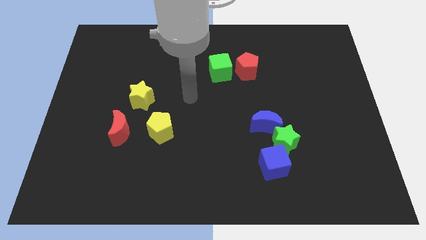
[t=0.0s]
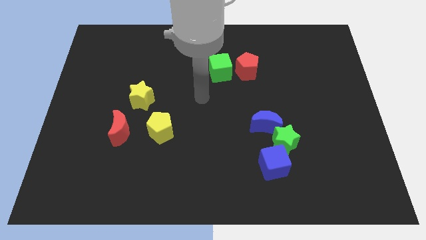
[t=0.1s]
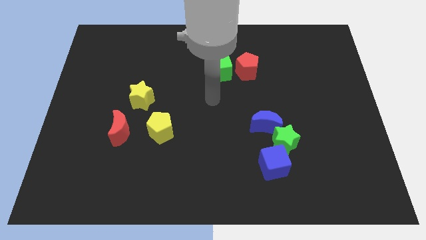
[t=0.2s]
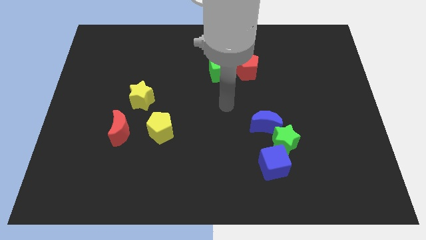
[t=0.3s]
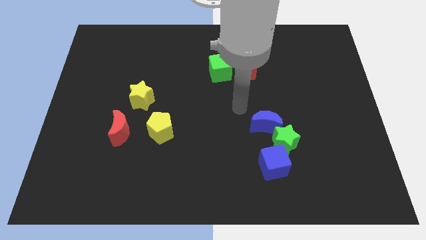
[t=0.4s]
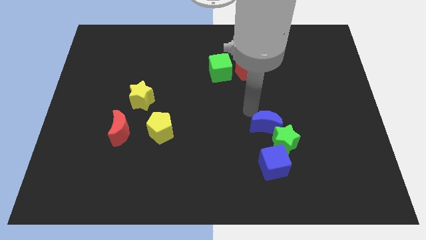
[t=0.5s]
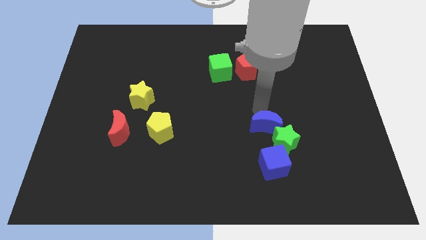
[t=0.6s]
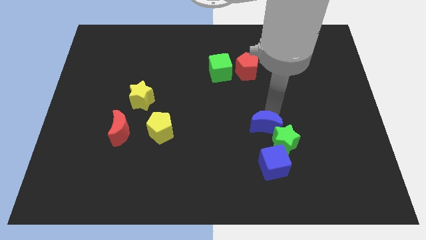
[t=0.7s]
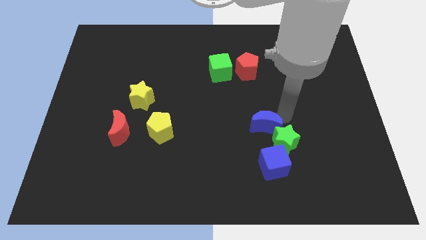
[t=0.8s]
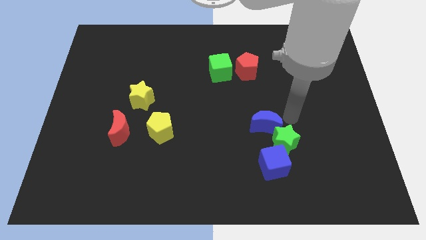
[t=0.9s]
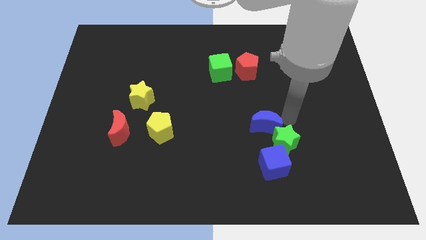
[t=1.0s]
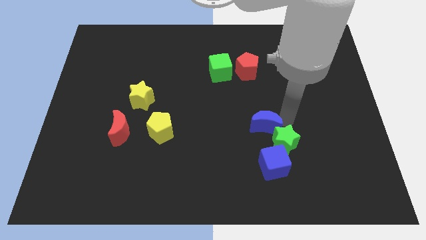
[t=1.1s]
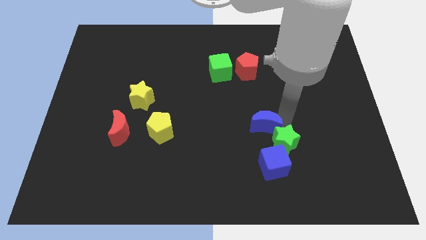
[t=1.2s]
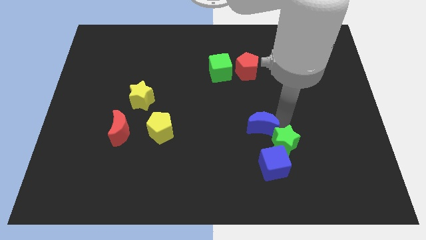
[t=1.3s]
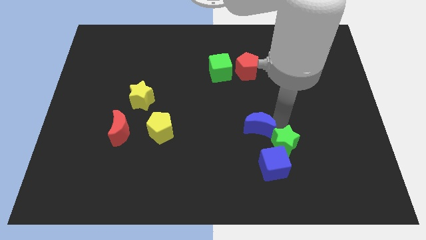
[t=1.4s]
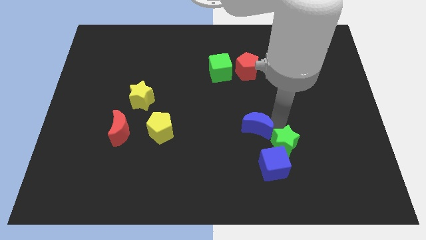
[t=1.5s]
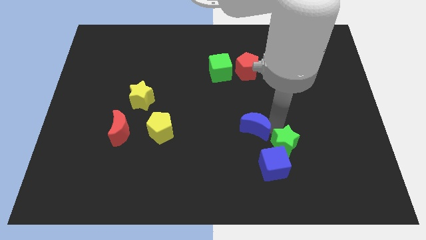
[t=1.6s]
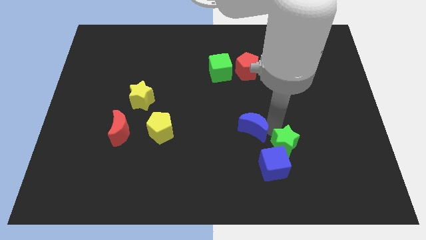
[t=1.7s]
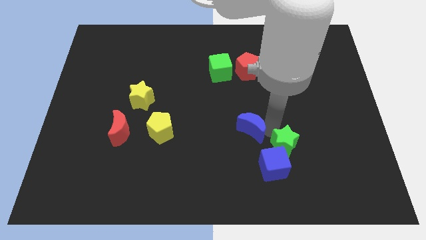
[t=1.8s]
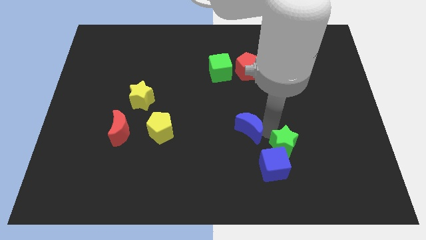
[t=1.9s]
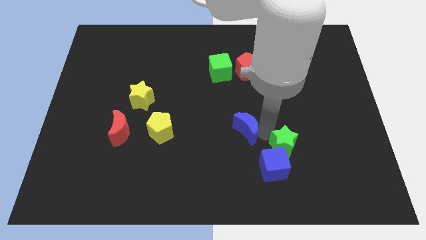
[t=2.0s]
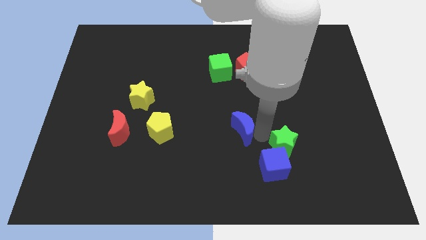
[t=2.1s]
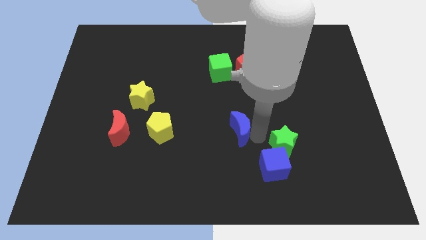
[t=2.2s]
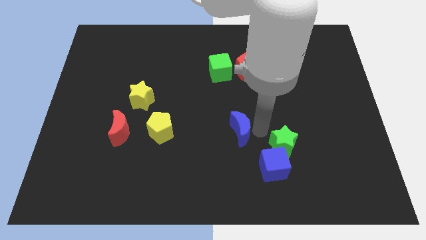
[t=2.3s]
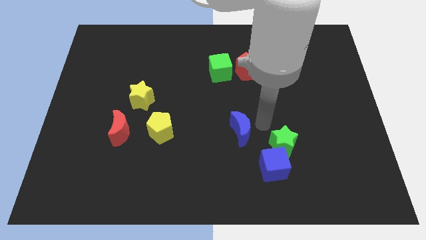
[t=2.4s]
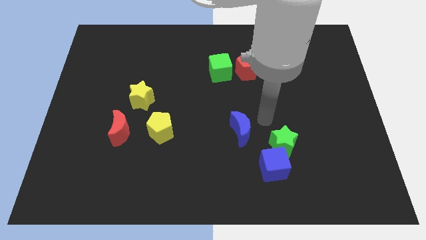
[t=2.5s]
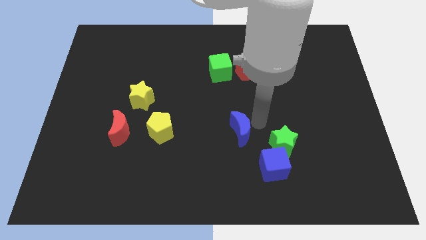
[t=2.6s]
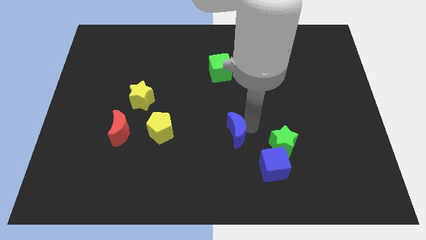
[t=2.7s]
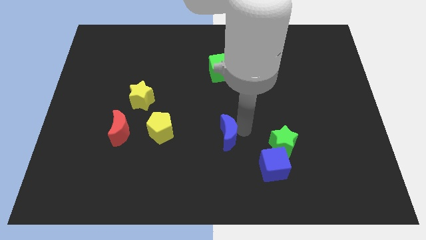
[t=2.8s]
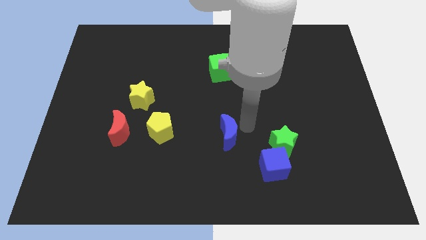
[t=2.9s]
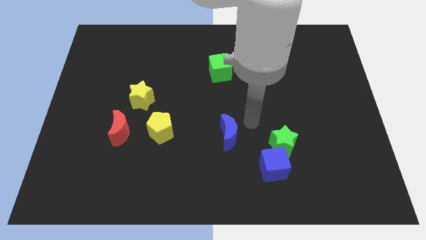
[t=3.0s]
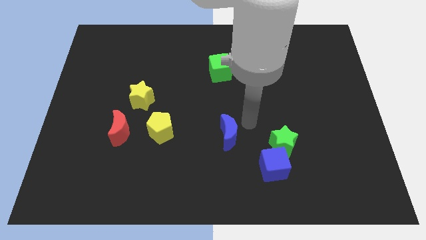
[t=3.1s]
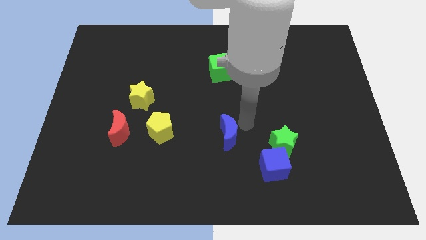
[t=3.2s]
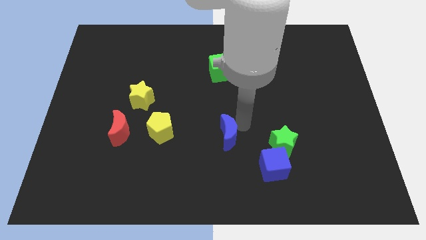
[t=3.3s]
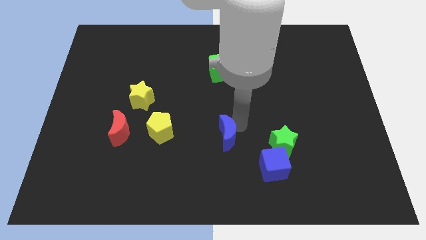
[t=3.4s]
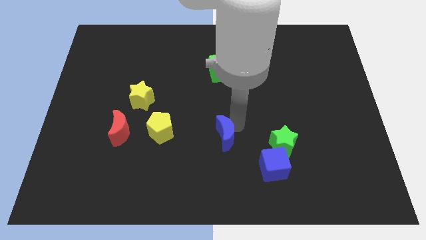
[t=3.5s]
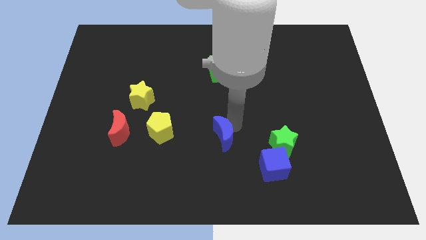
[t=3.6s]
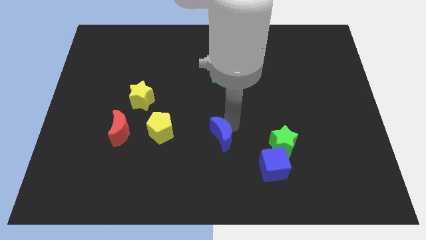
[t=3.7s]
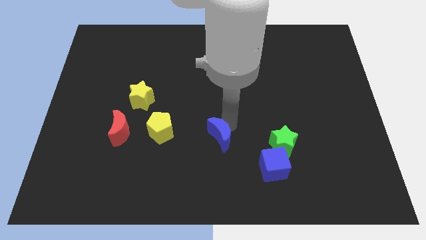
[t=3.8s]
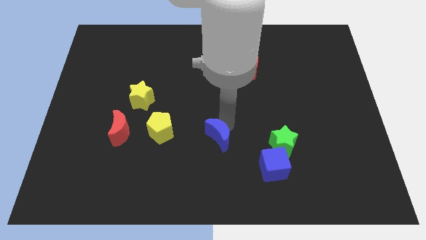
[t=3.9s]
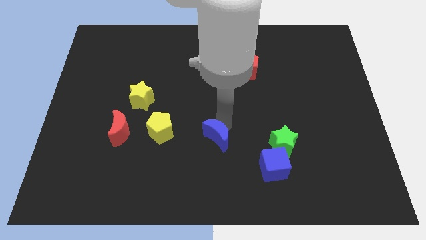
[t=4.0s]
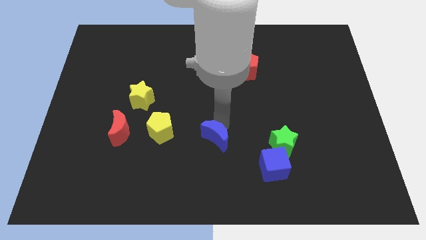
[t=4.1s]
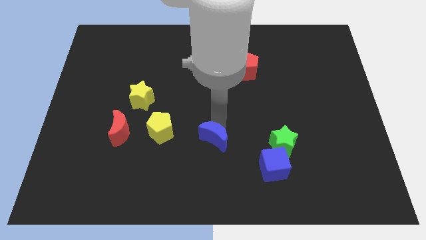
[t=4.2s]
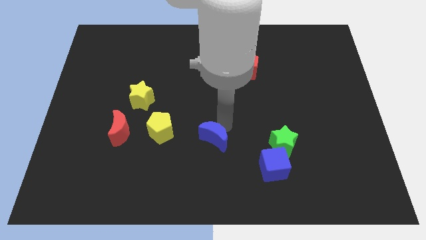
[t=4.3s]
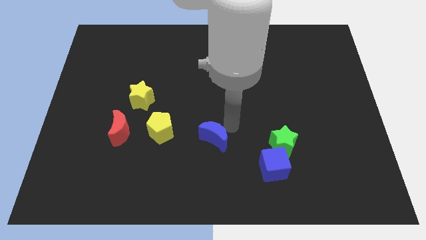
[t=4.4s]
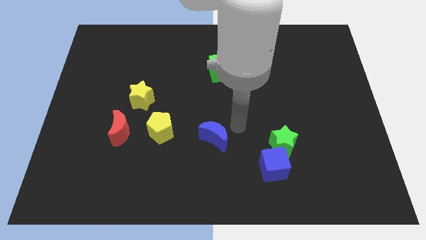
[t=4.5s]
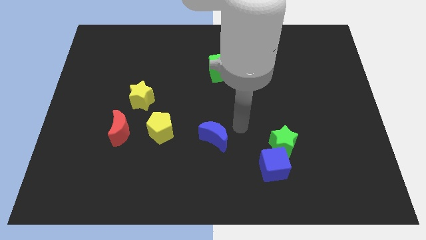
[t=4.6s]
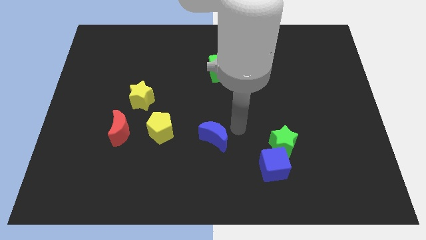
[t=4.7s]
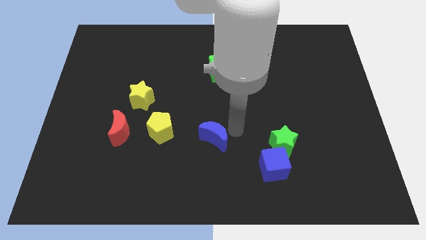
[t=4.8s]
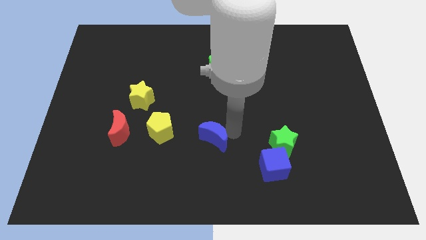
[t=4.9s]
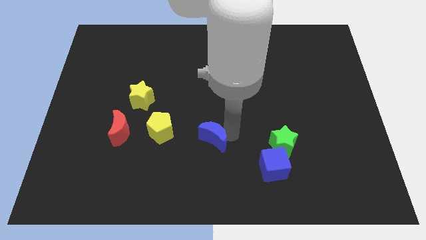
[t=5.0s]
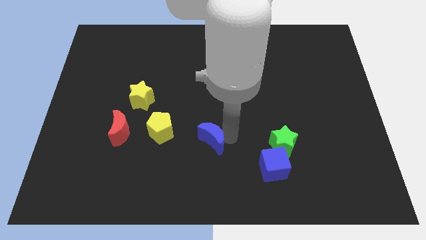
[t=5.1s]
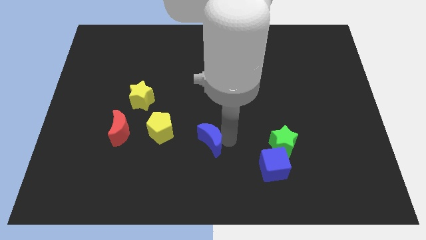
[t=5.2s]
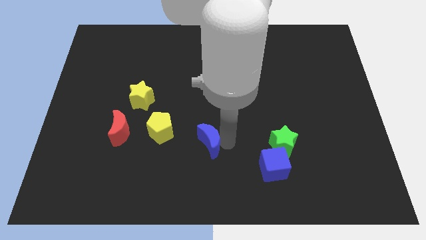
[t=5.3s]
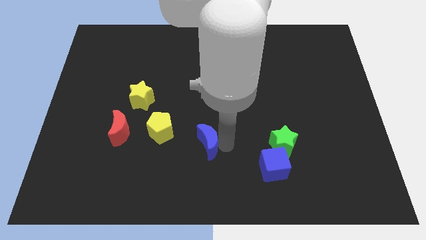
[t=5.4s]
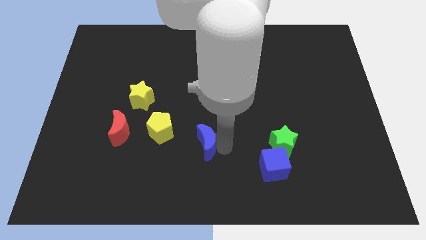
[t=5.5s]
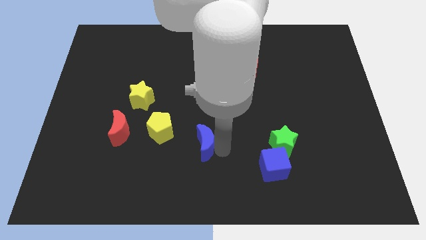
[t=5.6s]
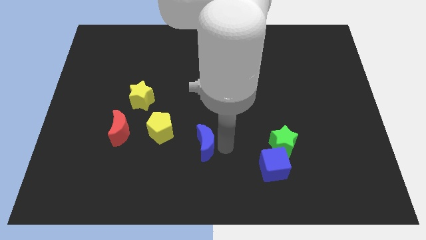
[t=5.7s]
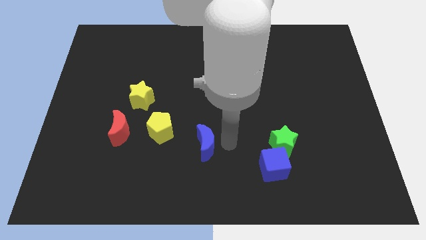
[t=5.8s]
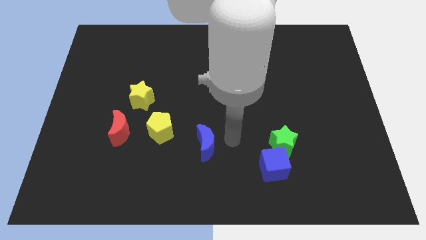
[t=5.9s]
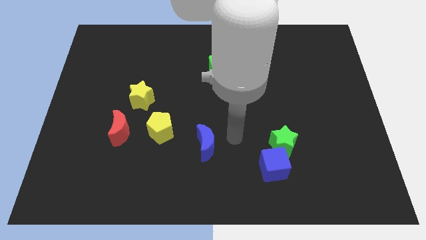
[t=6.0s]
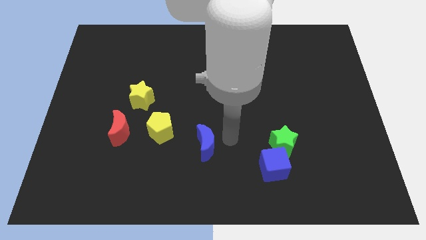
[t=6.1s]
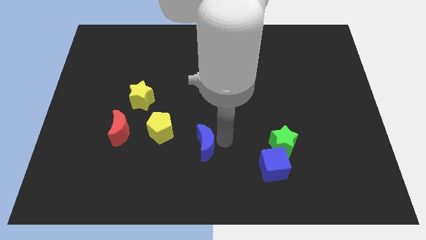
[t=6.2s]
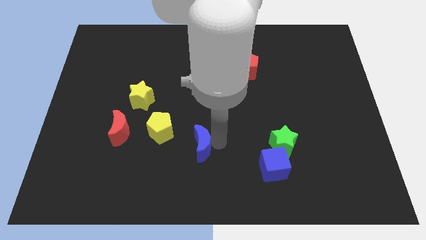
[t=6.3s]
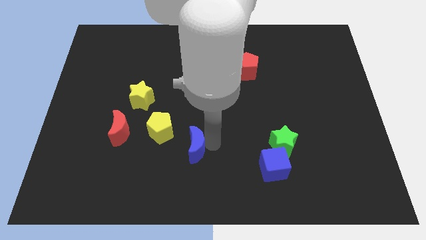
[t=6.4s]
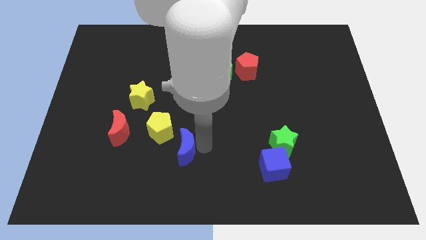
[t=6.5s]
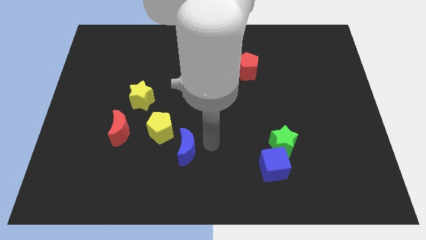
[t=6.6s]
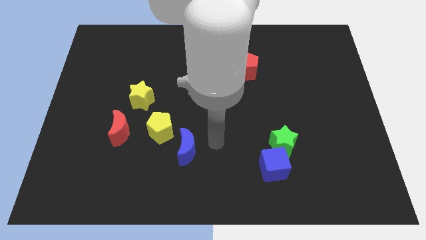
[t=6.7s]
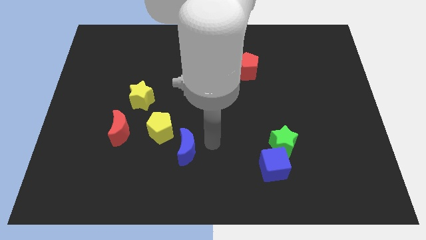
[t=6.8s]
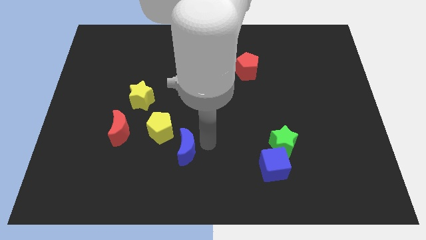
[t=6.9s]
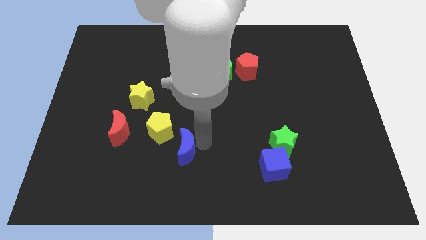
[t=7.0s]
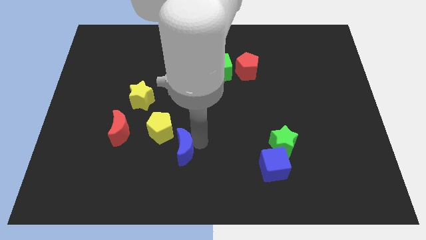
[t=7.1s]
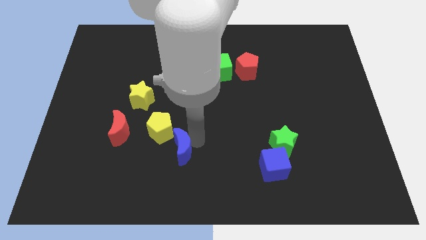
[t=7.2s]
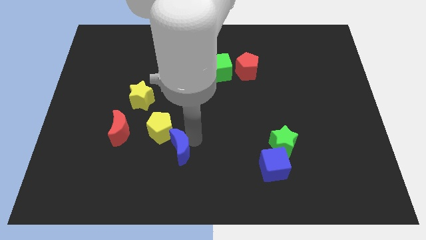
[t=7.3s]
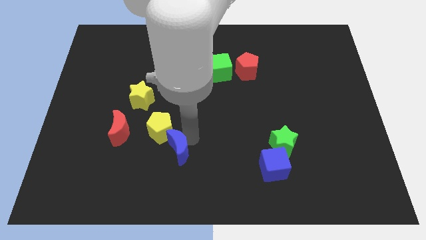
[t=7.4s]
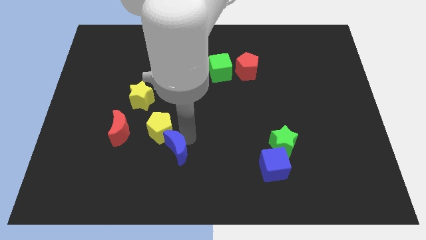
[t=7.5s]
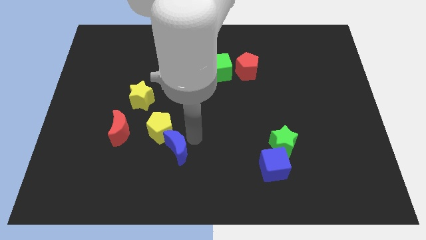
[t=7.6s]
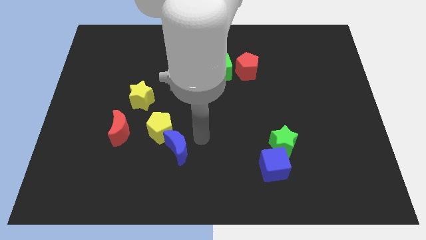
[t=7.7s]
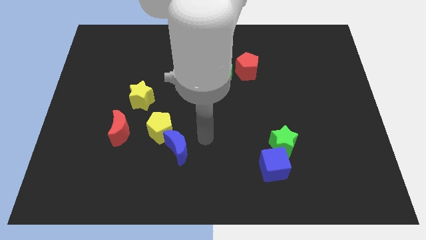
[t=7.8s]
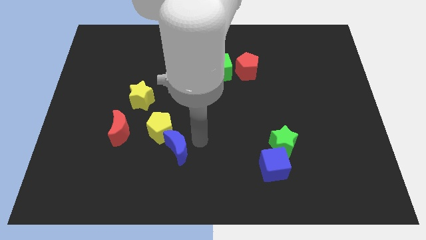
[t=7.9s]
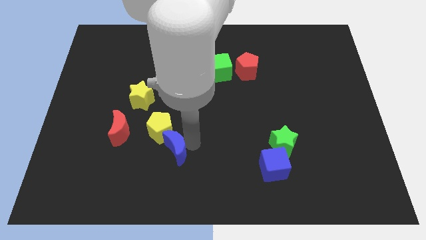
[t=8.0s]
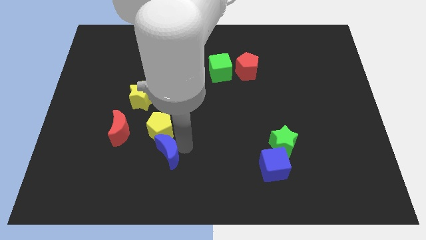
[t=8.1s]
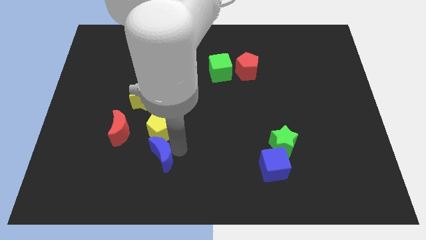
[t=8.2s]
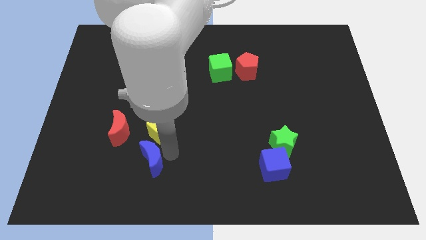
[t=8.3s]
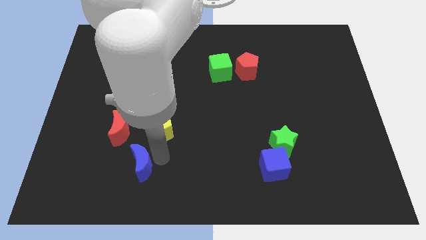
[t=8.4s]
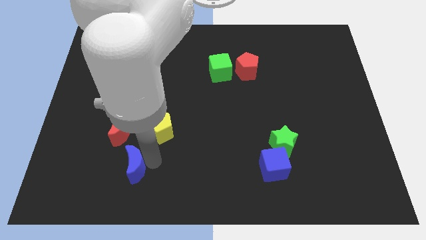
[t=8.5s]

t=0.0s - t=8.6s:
push the blue moon to the bottom of the red moon
